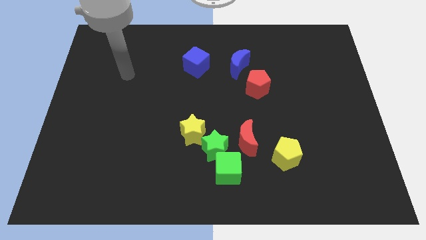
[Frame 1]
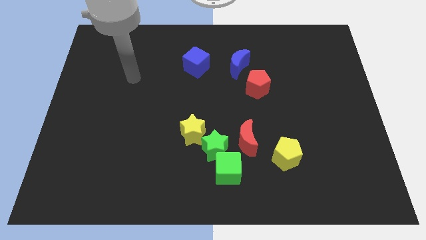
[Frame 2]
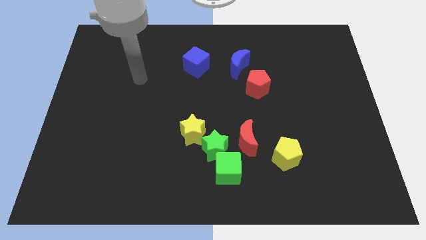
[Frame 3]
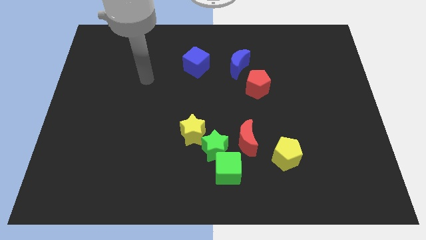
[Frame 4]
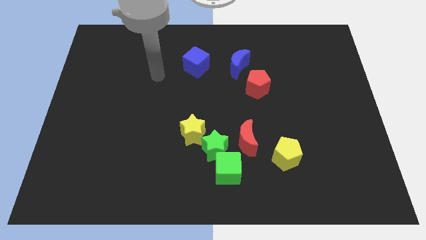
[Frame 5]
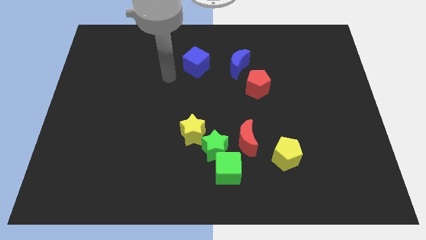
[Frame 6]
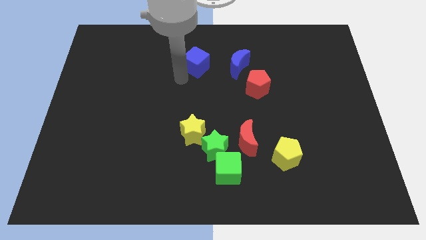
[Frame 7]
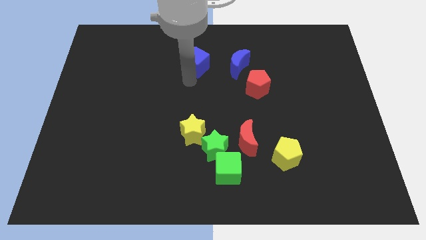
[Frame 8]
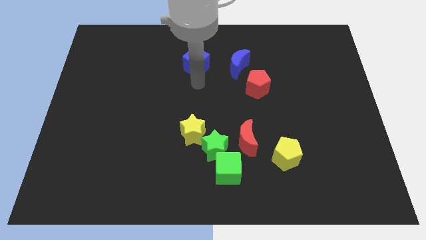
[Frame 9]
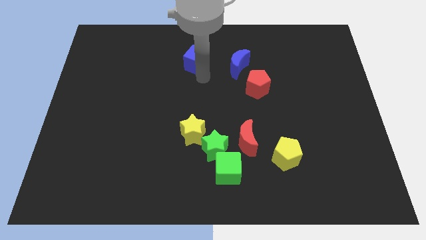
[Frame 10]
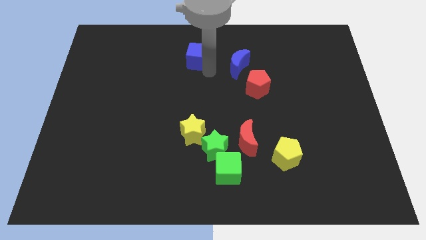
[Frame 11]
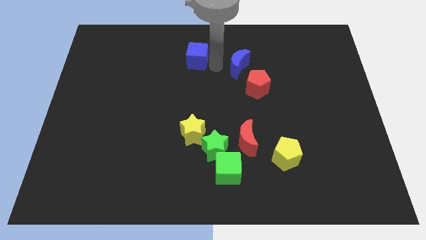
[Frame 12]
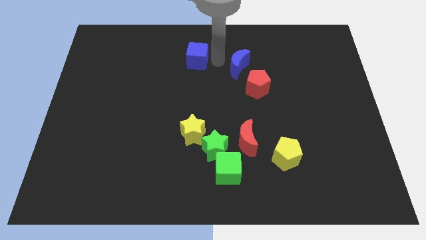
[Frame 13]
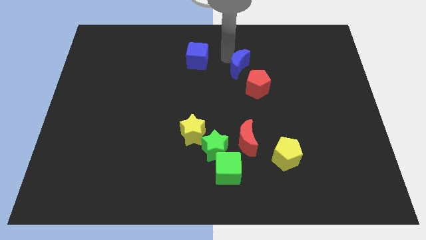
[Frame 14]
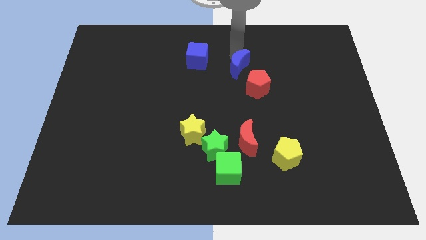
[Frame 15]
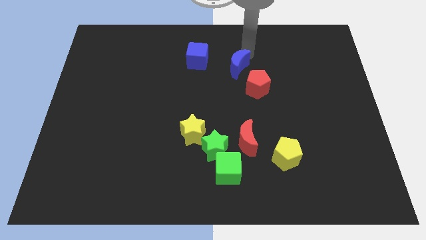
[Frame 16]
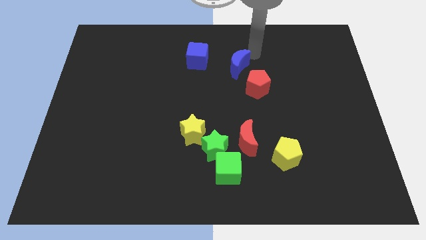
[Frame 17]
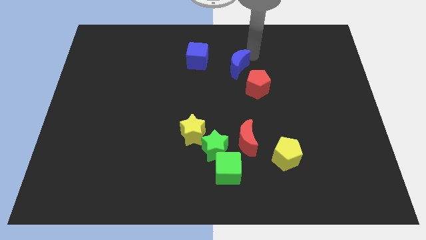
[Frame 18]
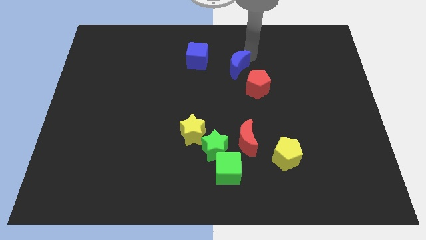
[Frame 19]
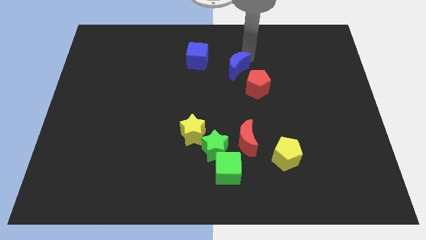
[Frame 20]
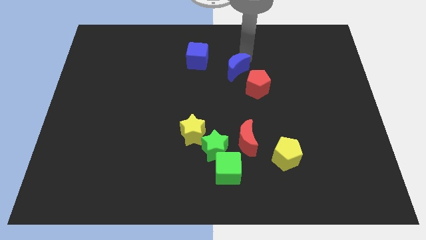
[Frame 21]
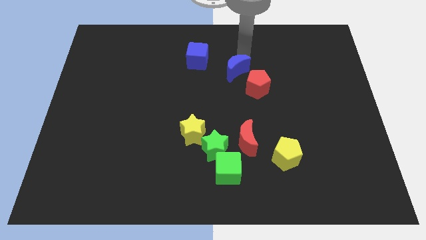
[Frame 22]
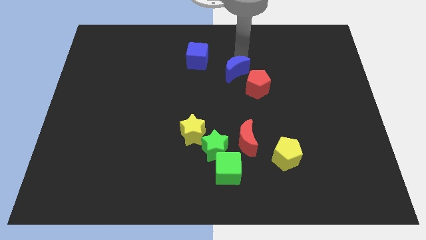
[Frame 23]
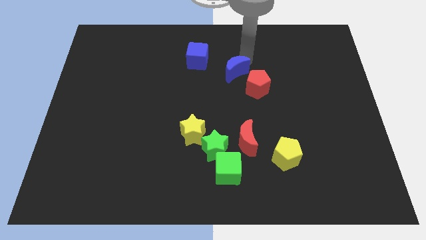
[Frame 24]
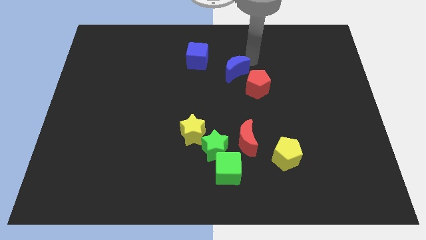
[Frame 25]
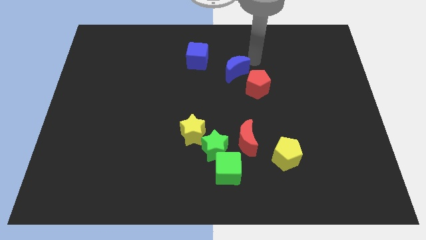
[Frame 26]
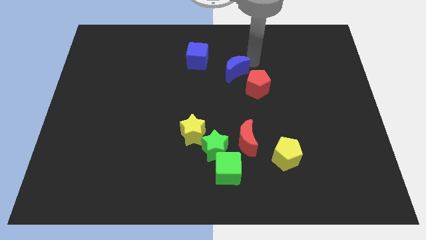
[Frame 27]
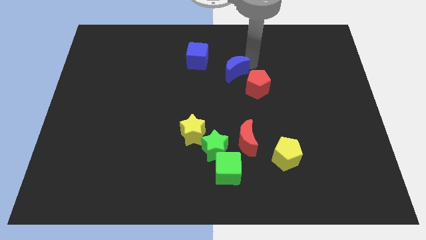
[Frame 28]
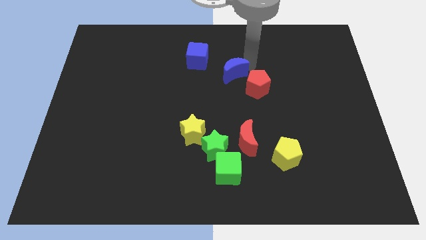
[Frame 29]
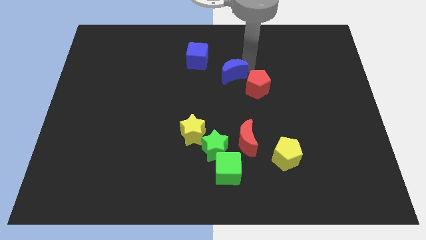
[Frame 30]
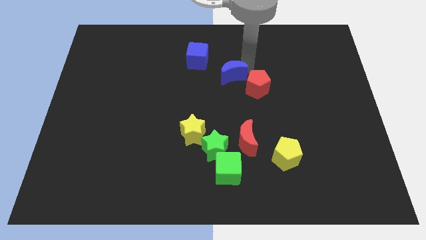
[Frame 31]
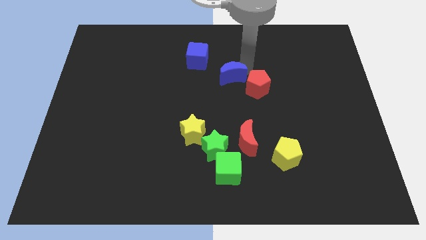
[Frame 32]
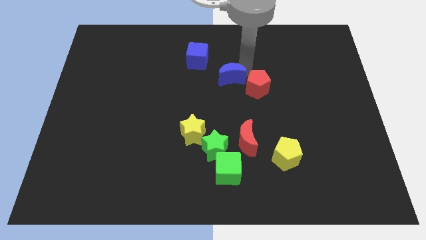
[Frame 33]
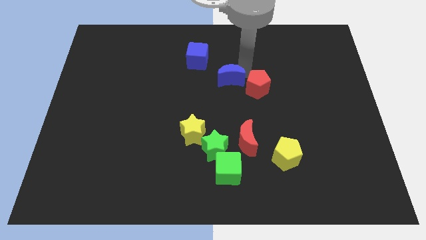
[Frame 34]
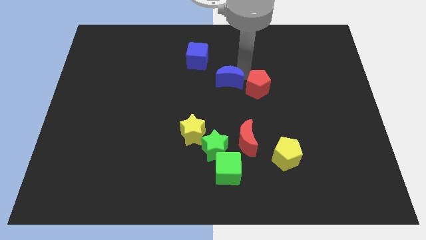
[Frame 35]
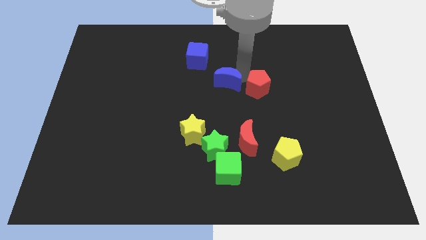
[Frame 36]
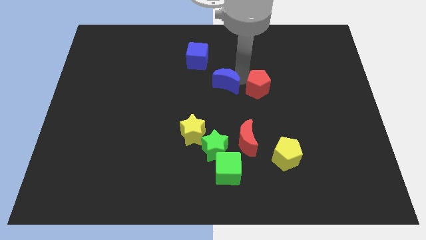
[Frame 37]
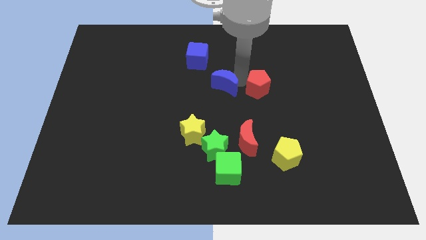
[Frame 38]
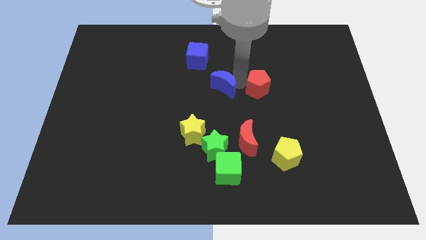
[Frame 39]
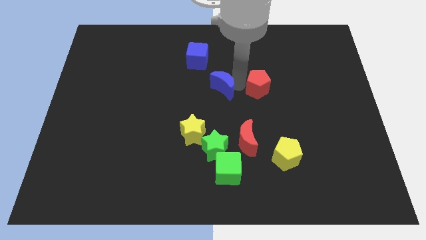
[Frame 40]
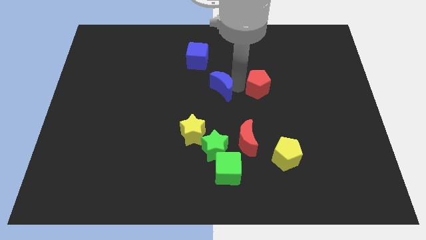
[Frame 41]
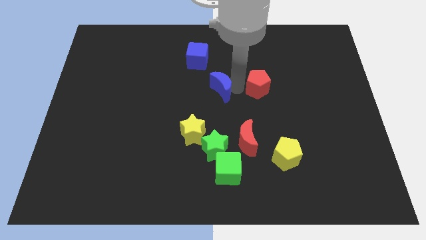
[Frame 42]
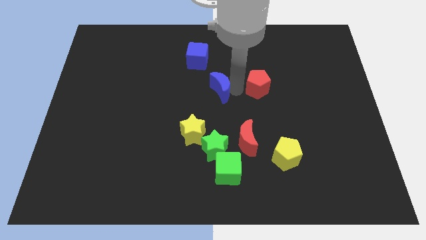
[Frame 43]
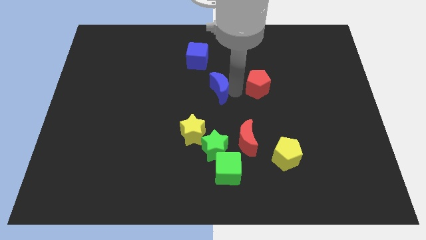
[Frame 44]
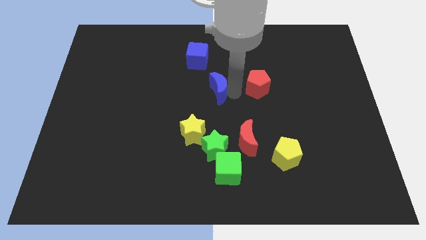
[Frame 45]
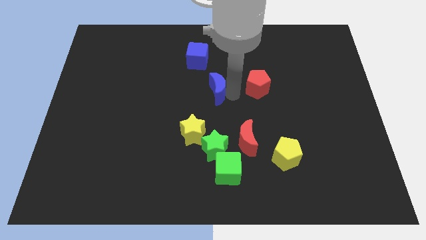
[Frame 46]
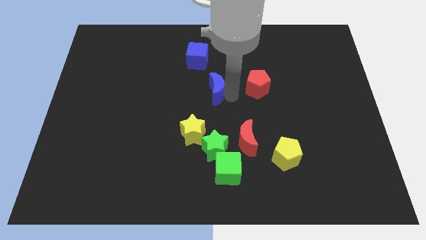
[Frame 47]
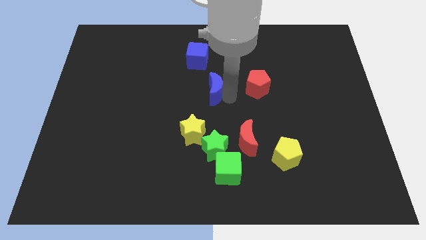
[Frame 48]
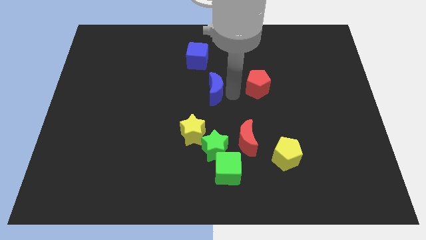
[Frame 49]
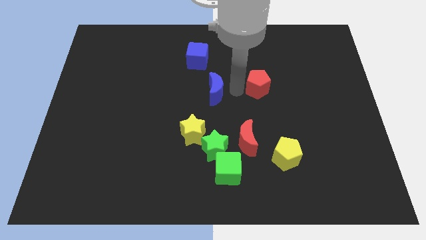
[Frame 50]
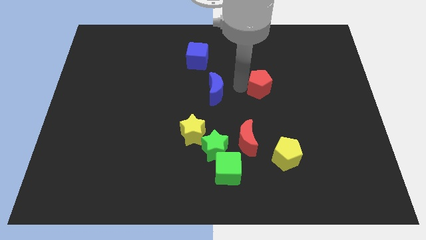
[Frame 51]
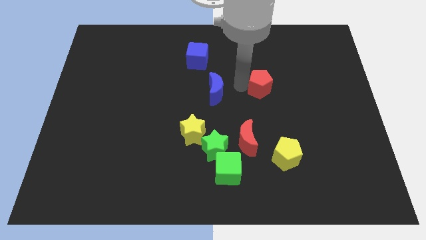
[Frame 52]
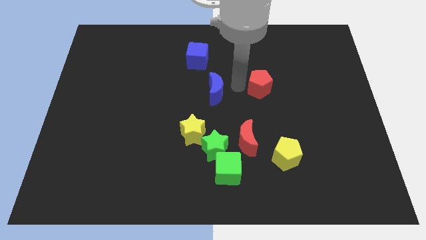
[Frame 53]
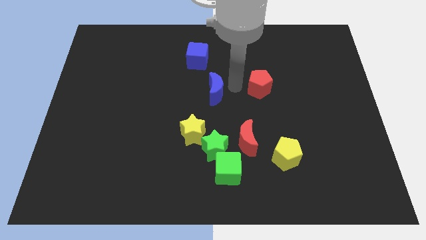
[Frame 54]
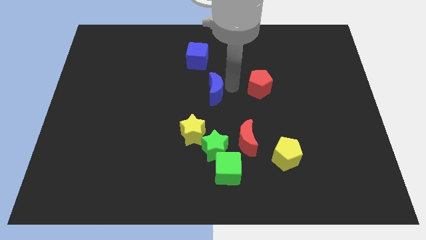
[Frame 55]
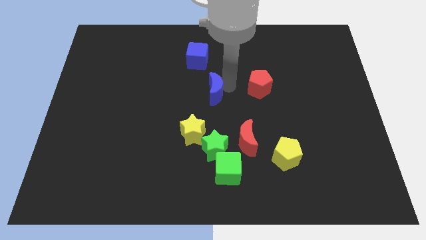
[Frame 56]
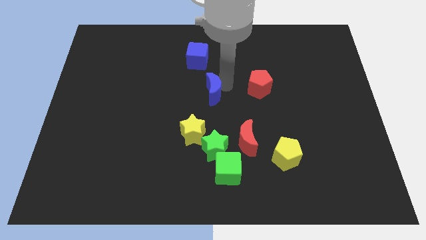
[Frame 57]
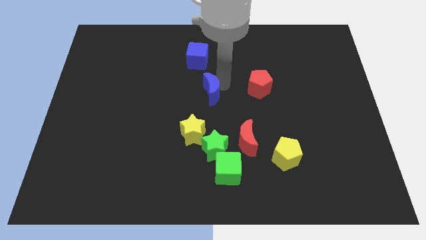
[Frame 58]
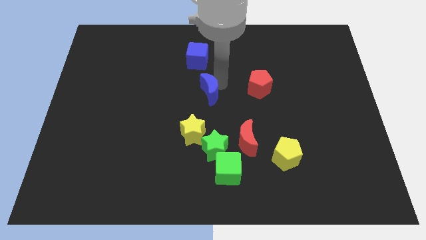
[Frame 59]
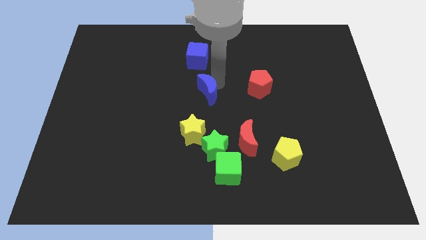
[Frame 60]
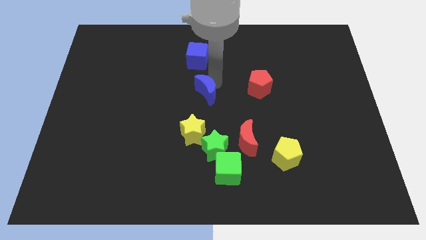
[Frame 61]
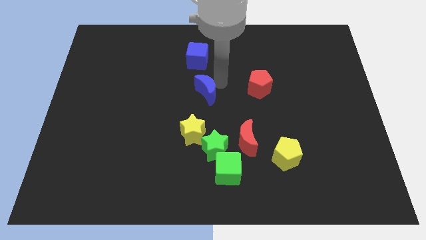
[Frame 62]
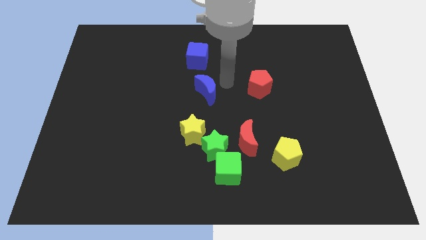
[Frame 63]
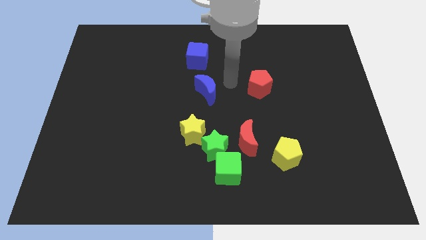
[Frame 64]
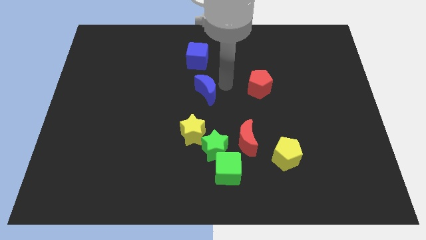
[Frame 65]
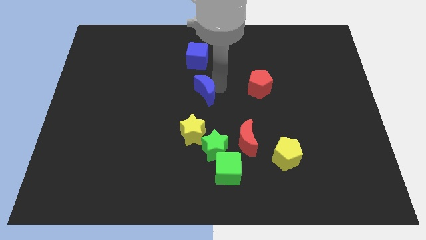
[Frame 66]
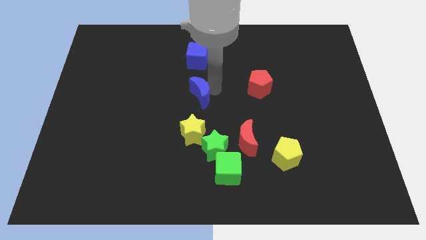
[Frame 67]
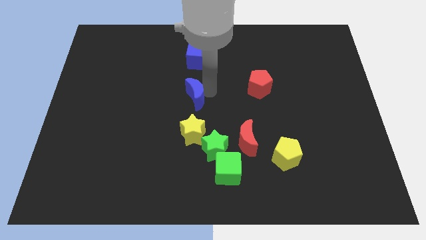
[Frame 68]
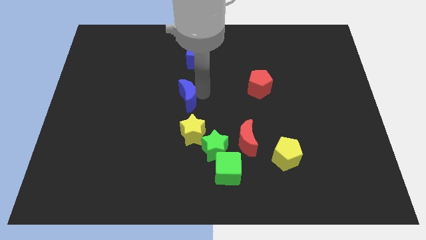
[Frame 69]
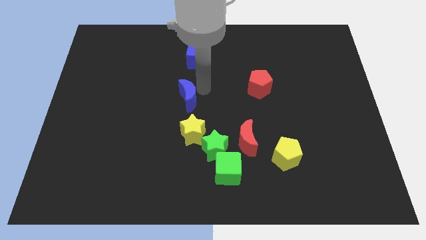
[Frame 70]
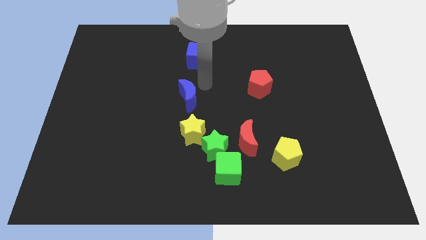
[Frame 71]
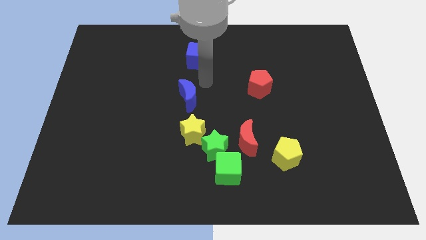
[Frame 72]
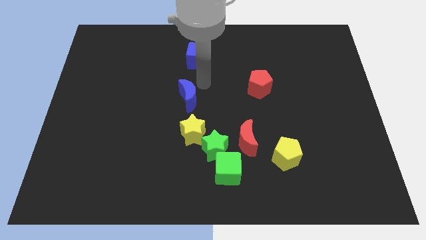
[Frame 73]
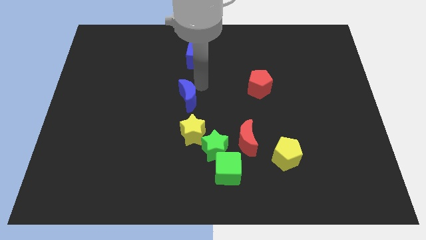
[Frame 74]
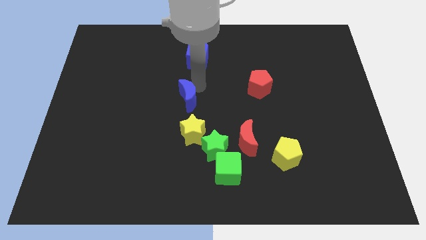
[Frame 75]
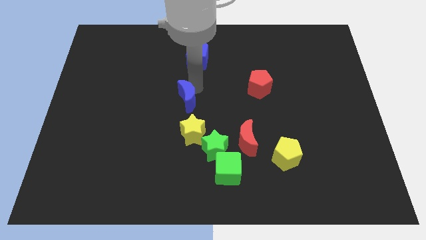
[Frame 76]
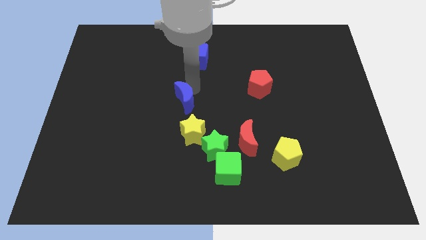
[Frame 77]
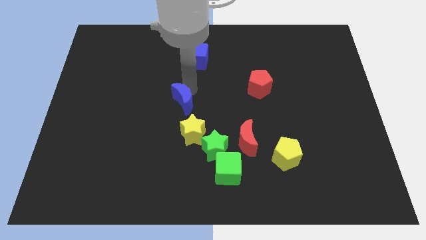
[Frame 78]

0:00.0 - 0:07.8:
put the blue moon to the top left side of the yellow star
